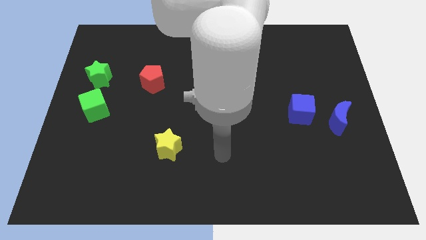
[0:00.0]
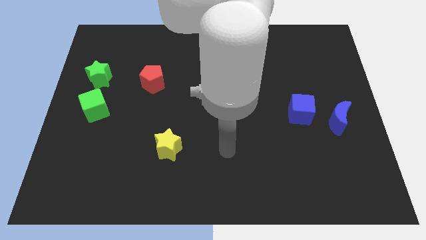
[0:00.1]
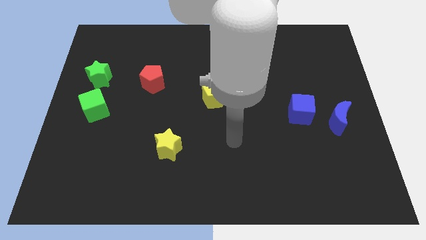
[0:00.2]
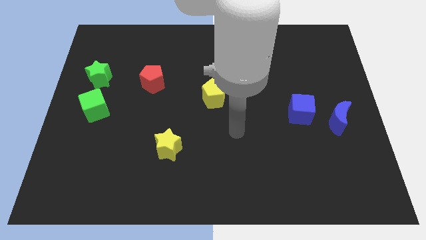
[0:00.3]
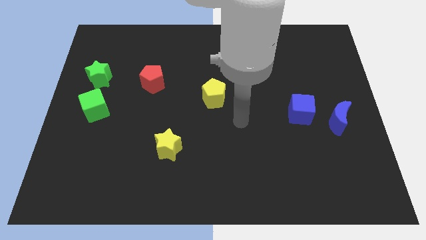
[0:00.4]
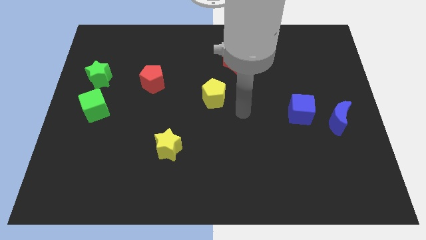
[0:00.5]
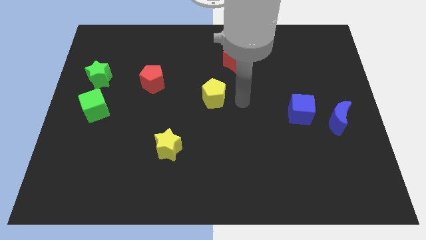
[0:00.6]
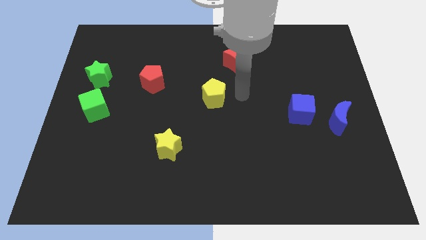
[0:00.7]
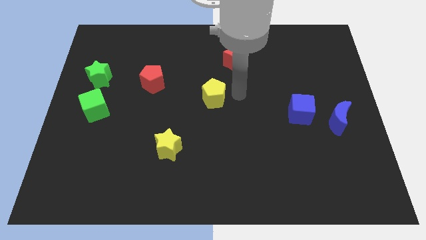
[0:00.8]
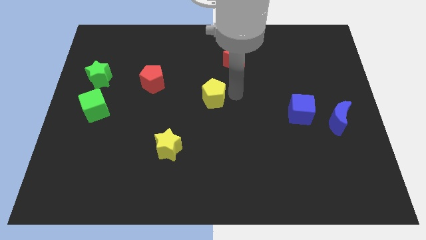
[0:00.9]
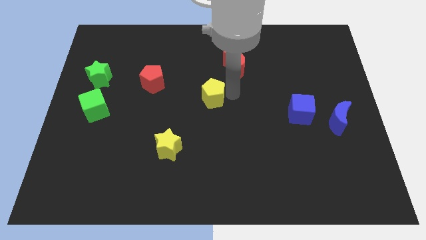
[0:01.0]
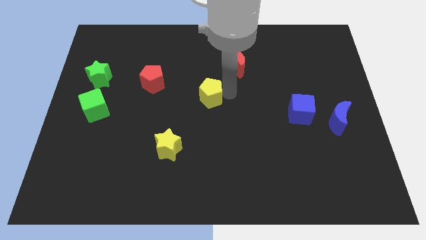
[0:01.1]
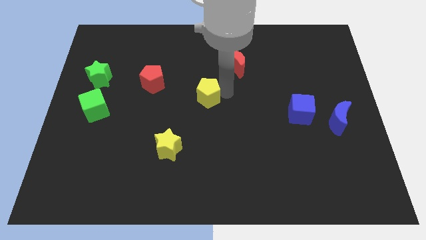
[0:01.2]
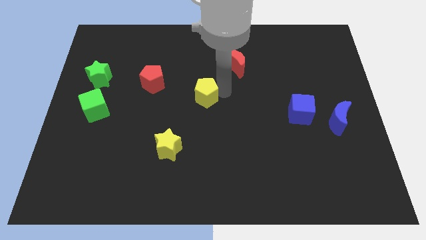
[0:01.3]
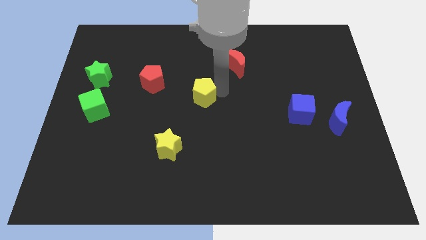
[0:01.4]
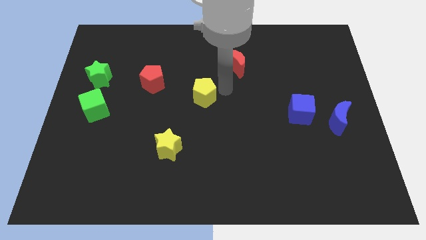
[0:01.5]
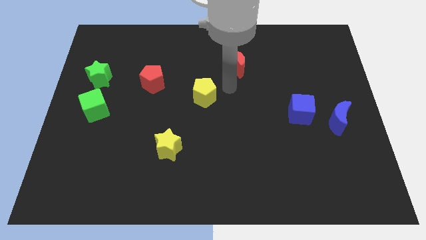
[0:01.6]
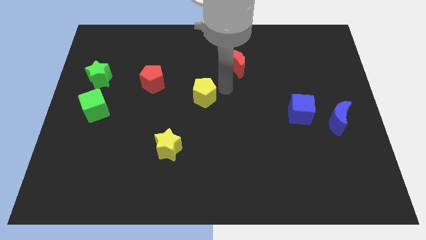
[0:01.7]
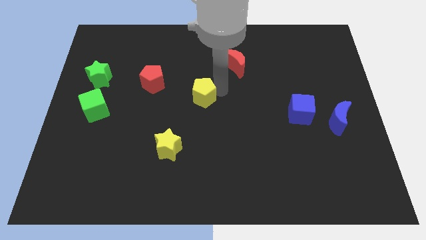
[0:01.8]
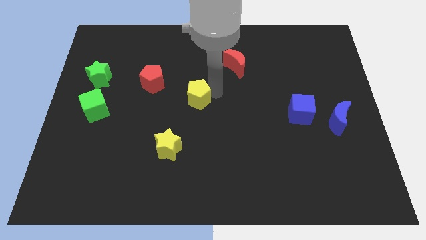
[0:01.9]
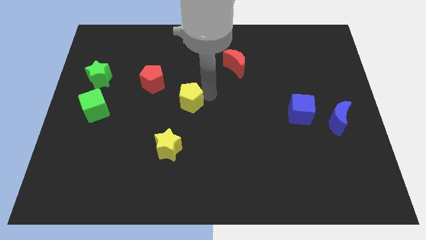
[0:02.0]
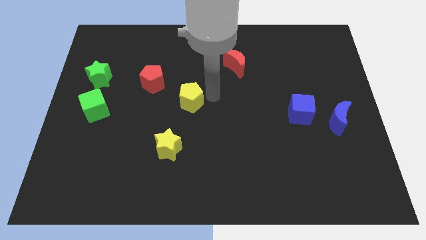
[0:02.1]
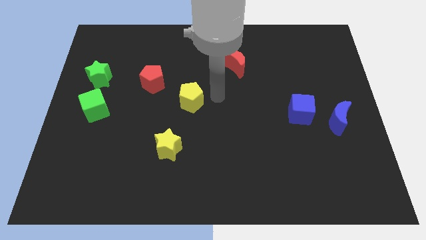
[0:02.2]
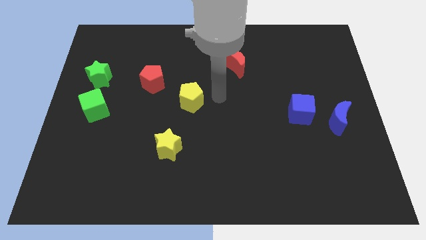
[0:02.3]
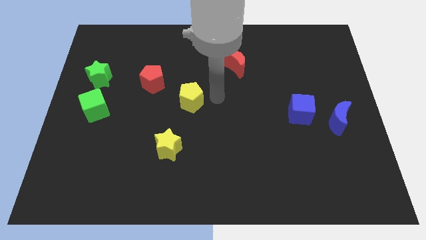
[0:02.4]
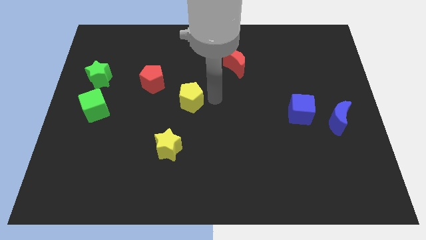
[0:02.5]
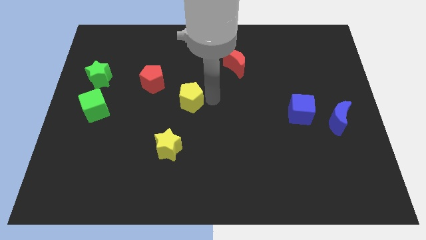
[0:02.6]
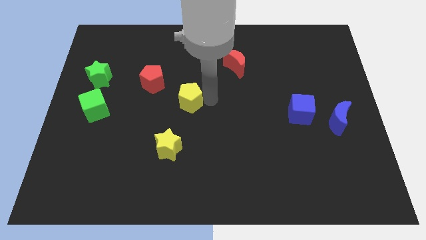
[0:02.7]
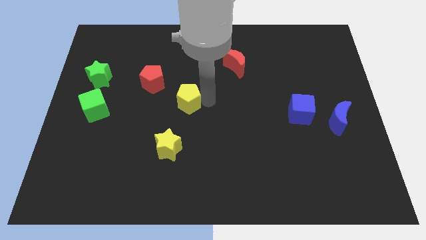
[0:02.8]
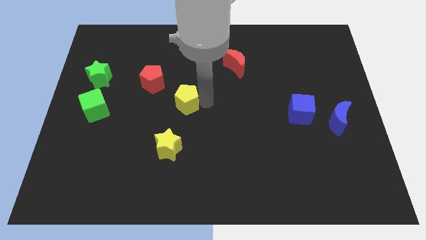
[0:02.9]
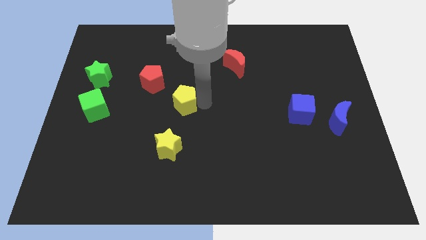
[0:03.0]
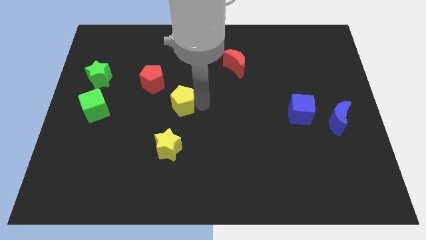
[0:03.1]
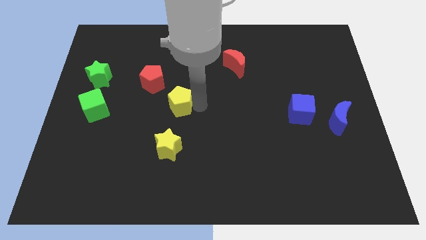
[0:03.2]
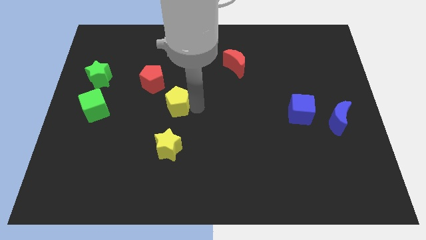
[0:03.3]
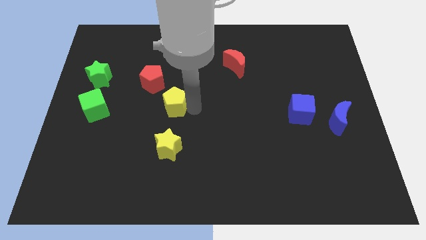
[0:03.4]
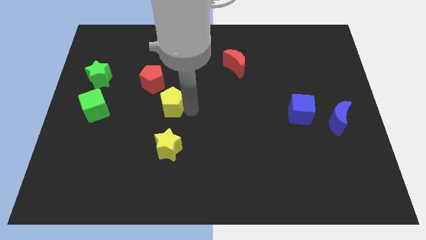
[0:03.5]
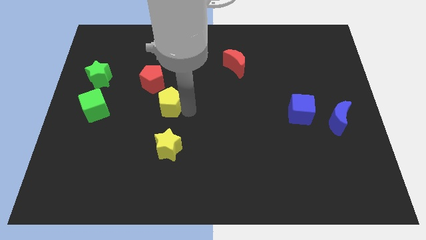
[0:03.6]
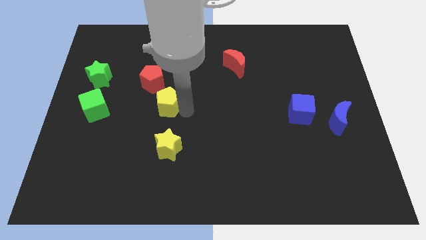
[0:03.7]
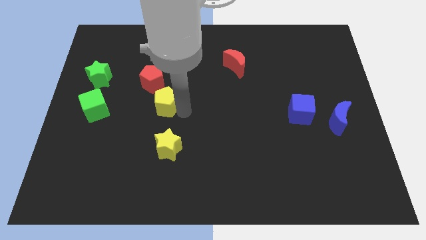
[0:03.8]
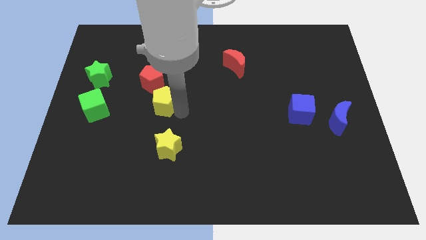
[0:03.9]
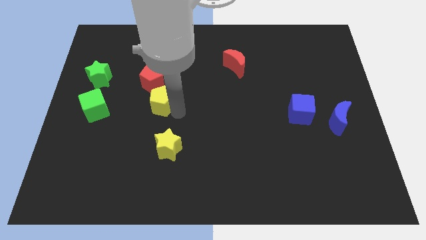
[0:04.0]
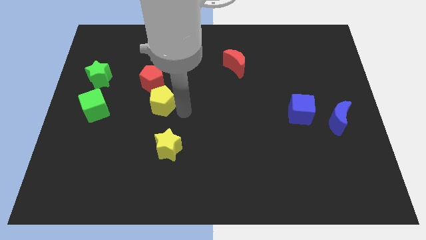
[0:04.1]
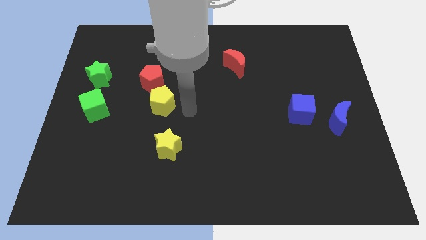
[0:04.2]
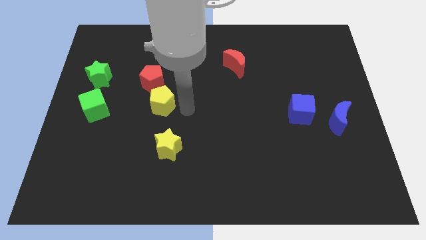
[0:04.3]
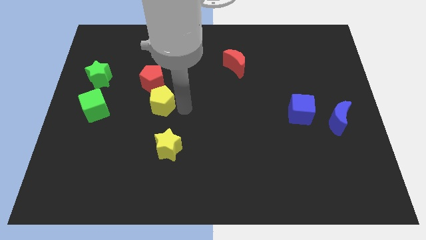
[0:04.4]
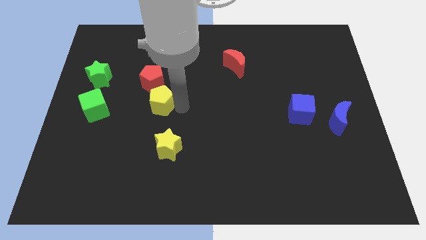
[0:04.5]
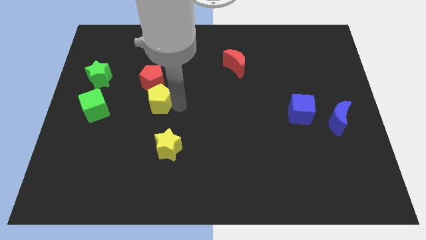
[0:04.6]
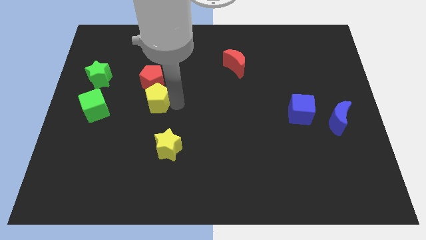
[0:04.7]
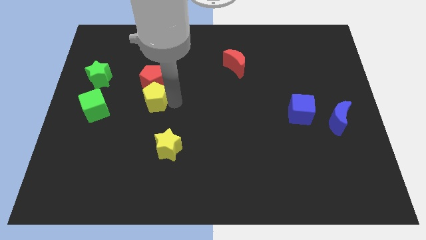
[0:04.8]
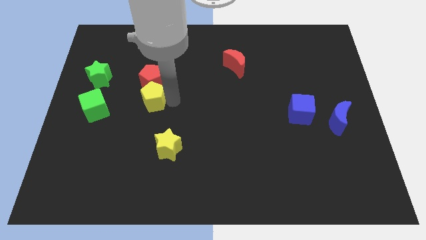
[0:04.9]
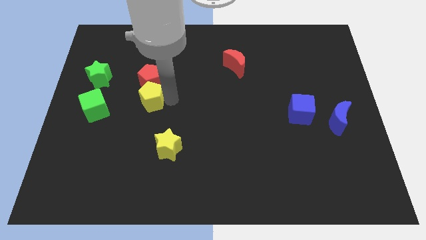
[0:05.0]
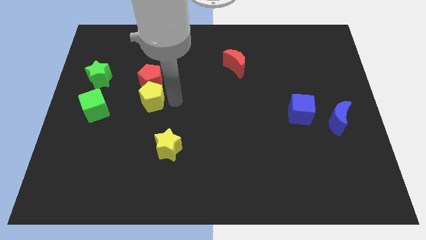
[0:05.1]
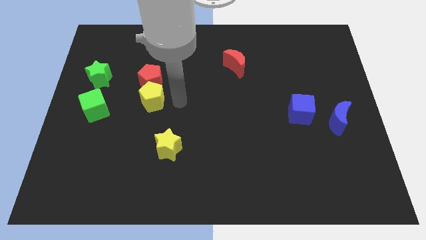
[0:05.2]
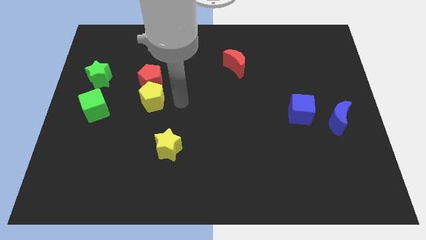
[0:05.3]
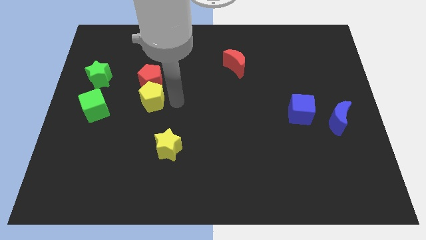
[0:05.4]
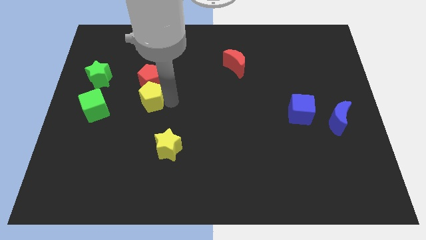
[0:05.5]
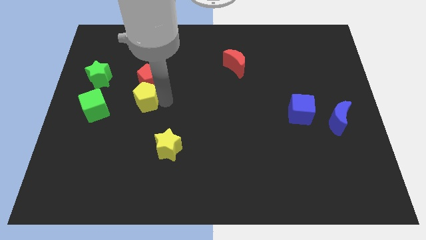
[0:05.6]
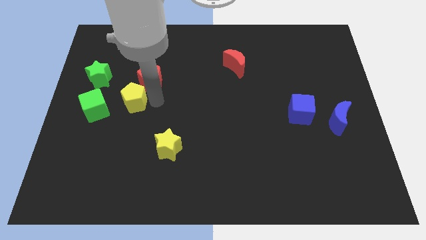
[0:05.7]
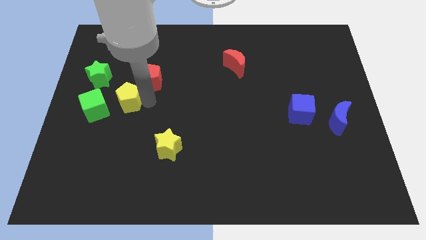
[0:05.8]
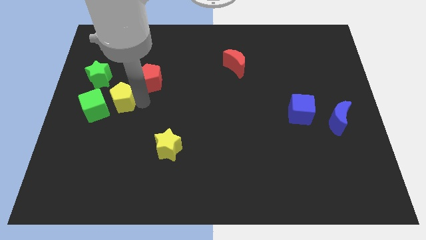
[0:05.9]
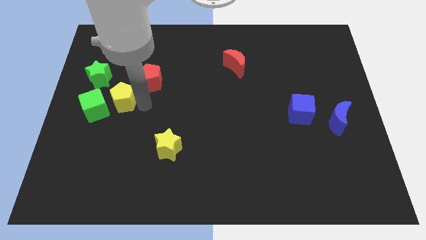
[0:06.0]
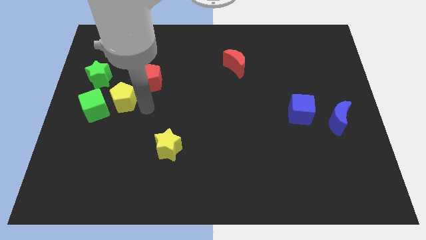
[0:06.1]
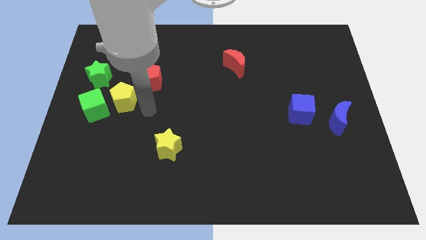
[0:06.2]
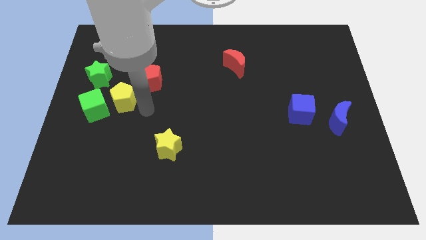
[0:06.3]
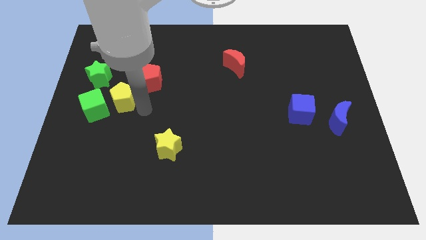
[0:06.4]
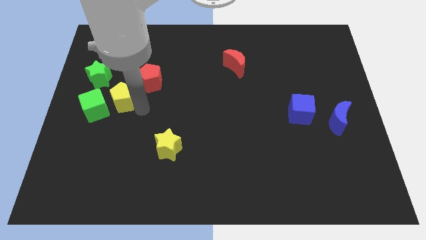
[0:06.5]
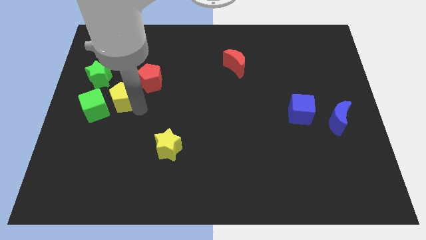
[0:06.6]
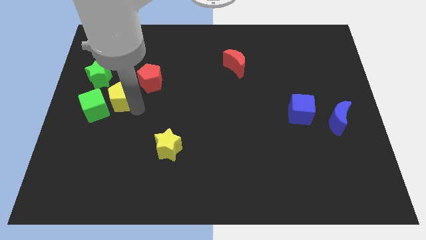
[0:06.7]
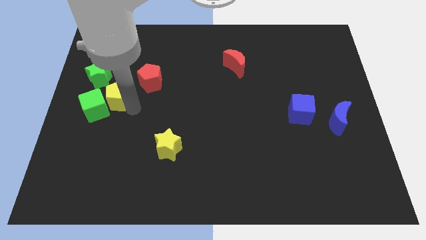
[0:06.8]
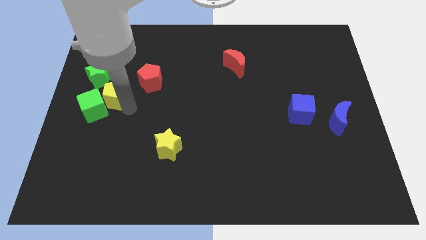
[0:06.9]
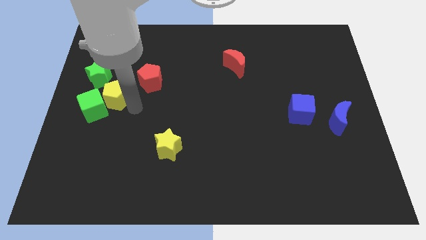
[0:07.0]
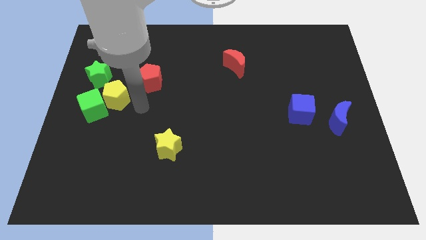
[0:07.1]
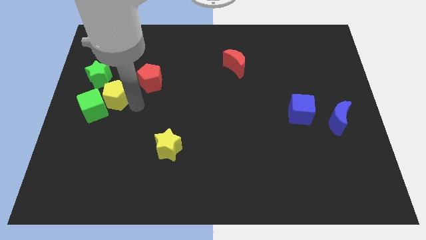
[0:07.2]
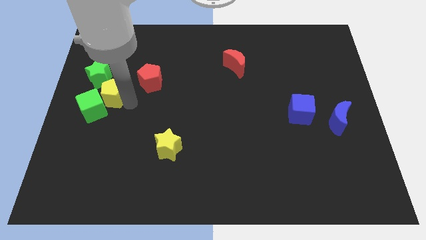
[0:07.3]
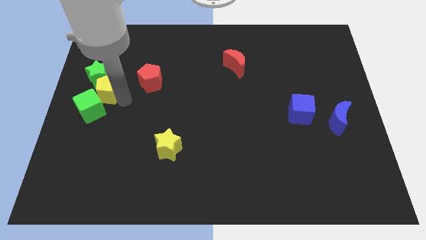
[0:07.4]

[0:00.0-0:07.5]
slide the yellow pentagon to the left side of the board
